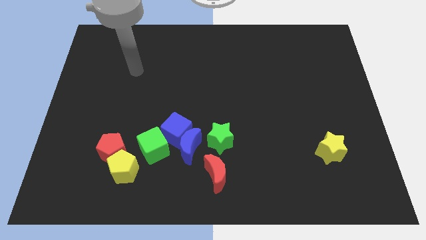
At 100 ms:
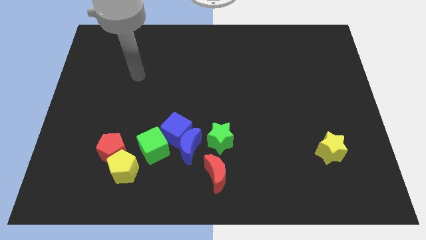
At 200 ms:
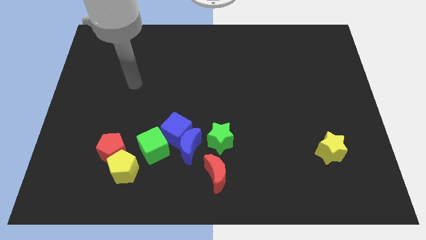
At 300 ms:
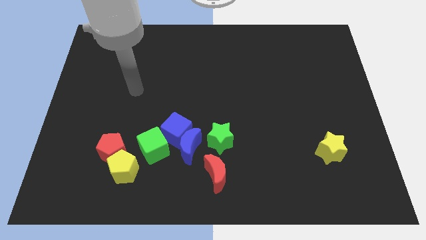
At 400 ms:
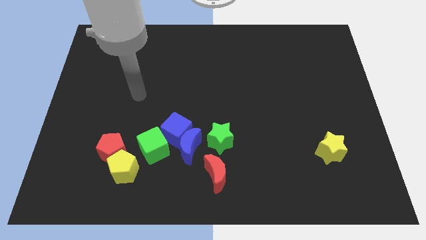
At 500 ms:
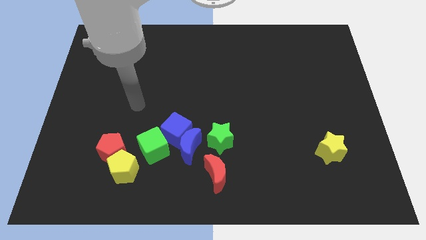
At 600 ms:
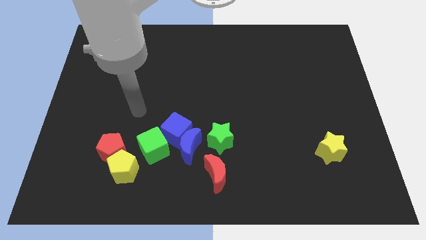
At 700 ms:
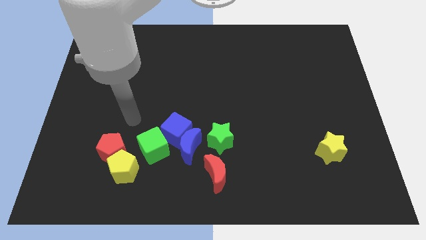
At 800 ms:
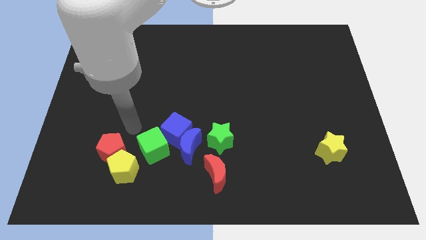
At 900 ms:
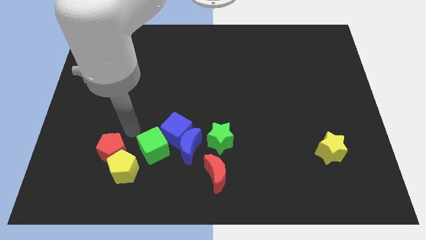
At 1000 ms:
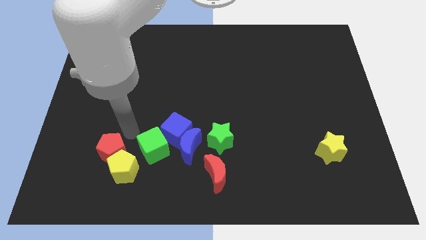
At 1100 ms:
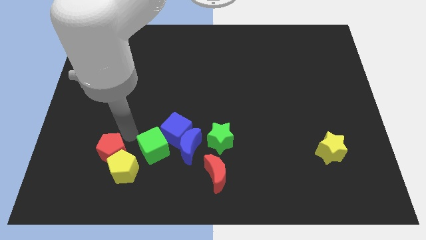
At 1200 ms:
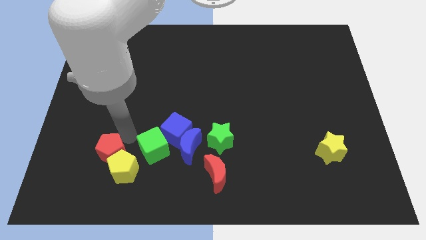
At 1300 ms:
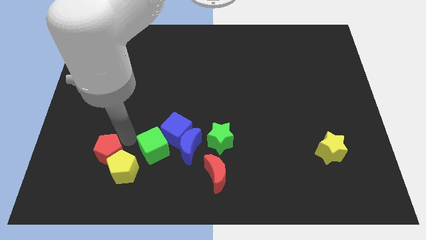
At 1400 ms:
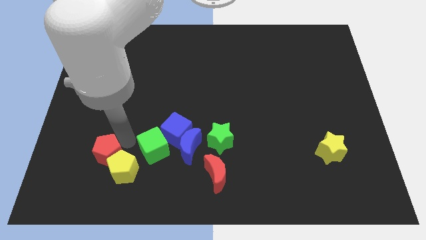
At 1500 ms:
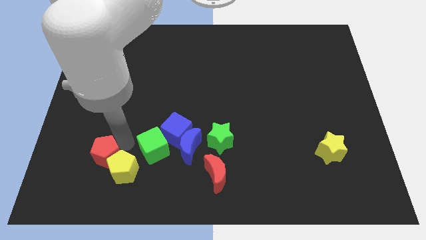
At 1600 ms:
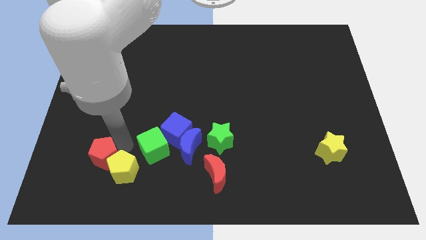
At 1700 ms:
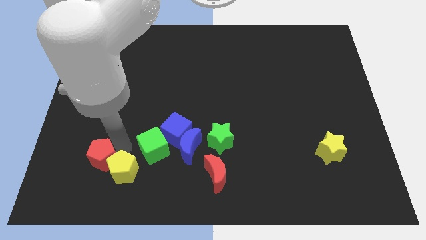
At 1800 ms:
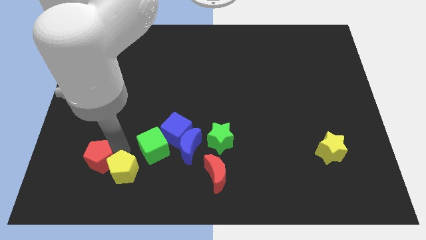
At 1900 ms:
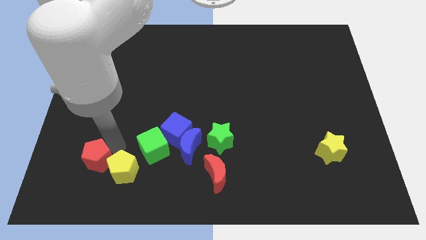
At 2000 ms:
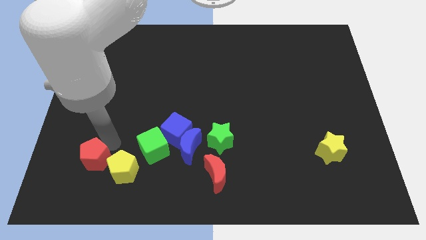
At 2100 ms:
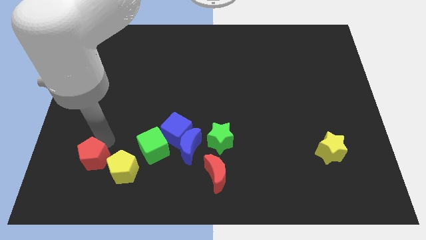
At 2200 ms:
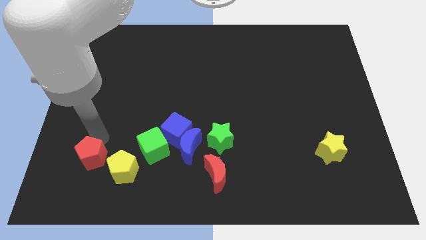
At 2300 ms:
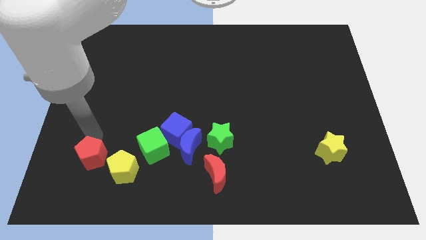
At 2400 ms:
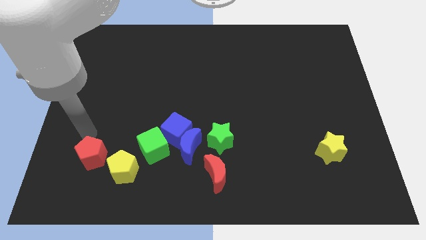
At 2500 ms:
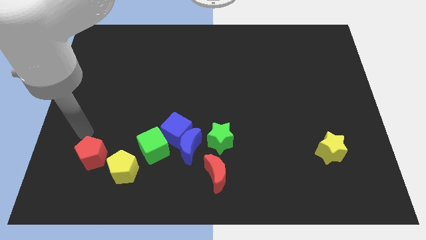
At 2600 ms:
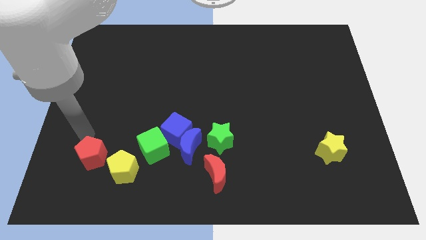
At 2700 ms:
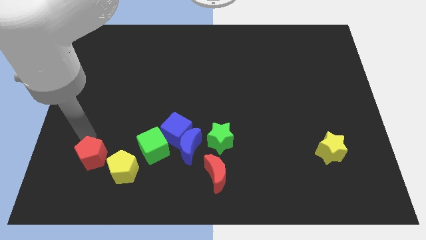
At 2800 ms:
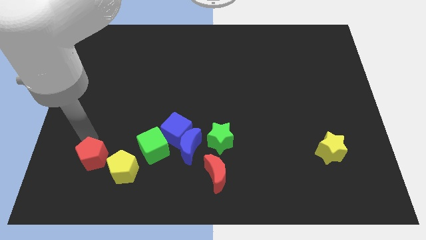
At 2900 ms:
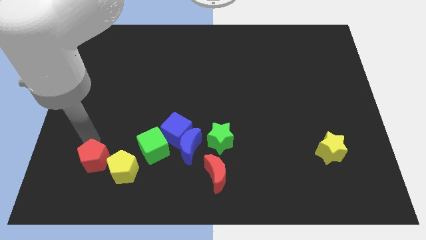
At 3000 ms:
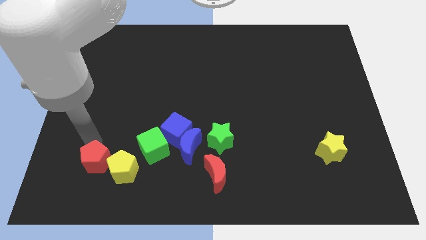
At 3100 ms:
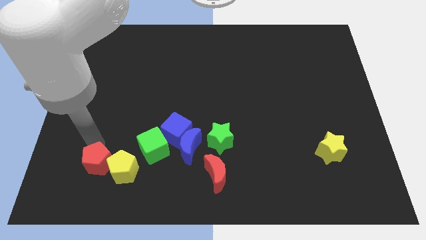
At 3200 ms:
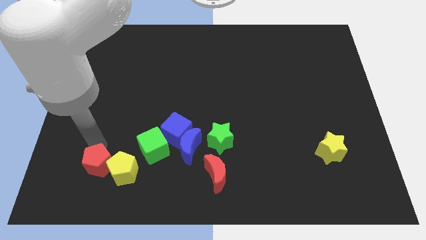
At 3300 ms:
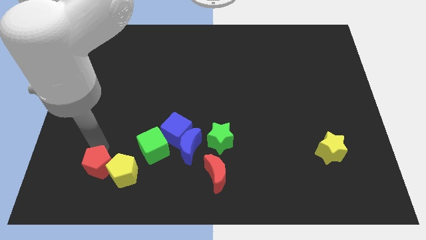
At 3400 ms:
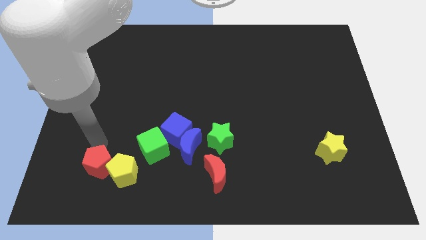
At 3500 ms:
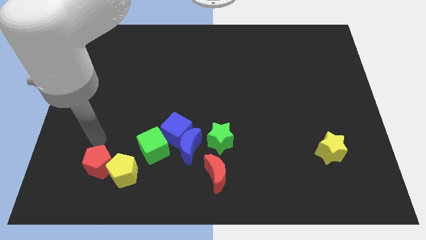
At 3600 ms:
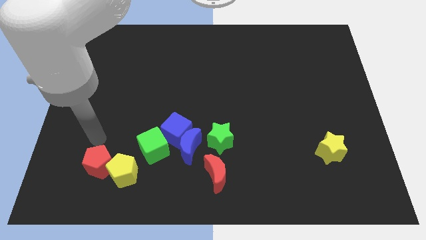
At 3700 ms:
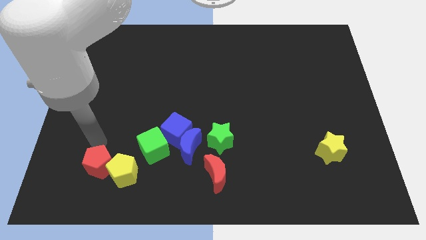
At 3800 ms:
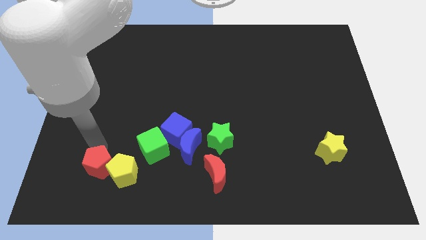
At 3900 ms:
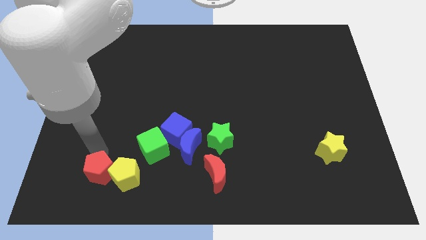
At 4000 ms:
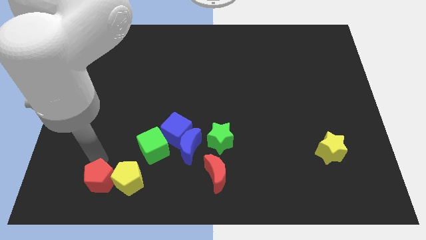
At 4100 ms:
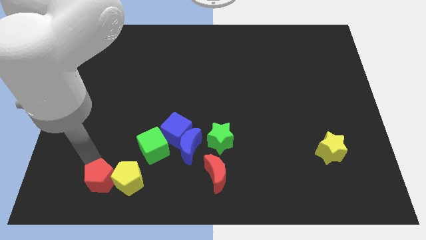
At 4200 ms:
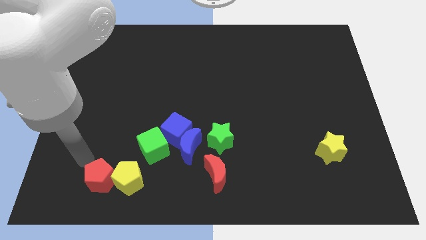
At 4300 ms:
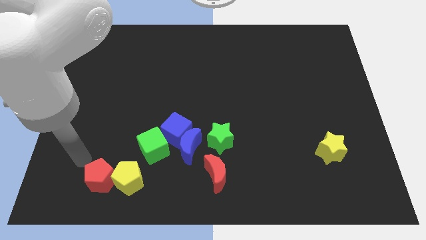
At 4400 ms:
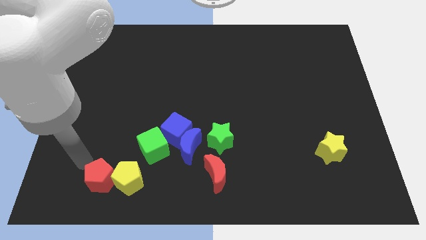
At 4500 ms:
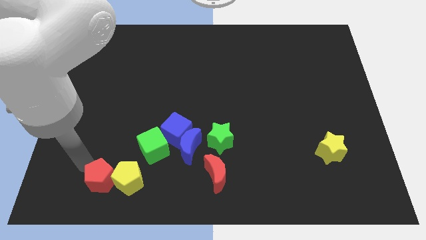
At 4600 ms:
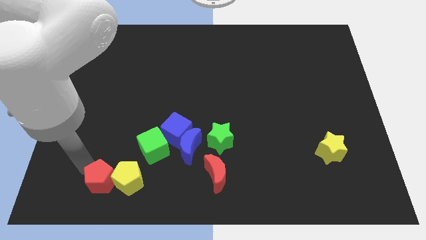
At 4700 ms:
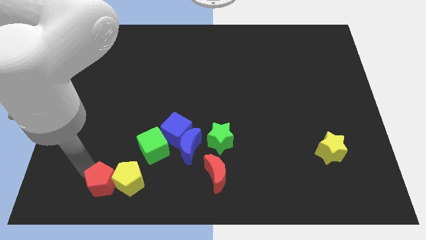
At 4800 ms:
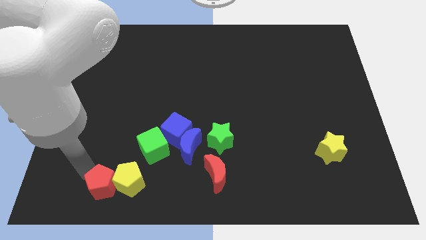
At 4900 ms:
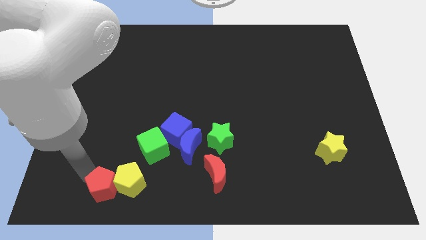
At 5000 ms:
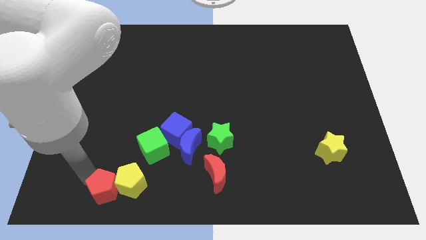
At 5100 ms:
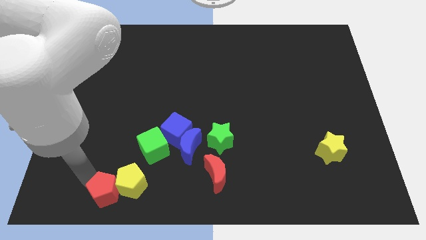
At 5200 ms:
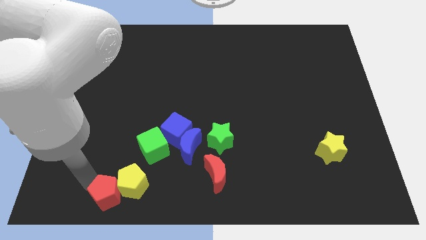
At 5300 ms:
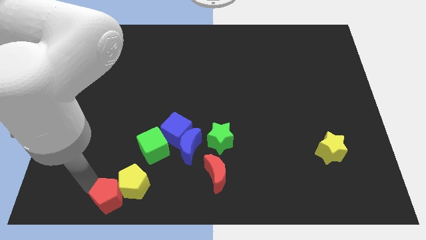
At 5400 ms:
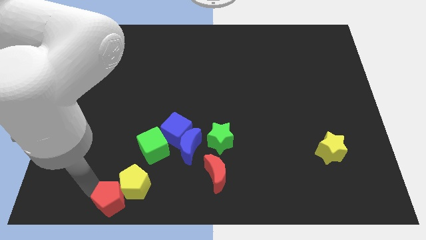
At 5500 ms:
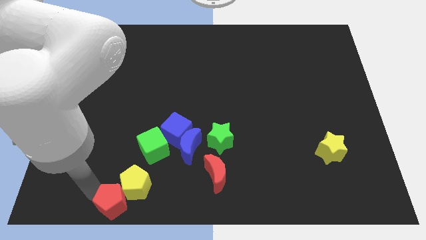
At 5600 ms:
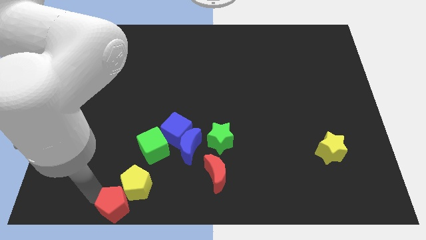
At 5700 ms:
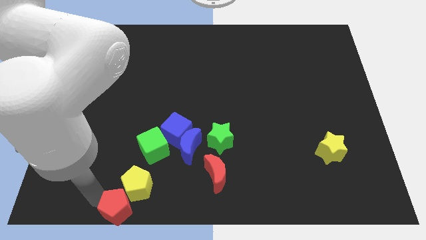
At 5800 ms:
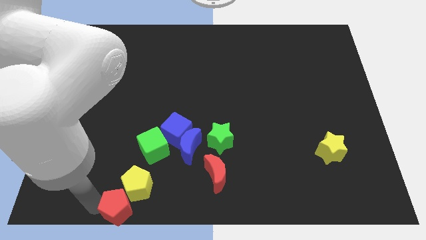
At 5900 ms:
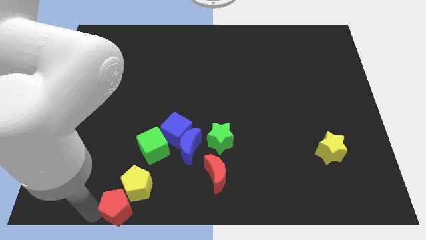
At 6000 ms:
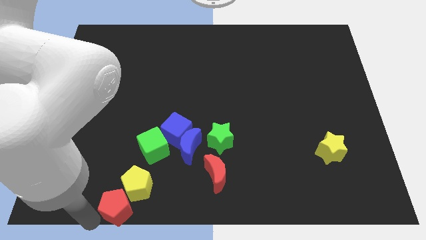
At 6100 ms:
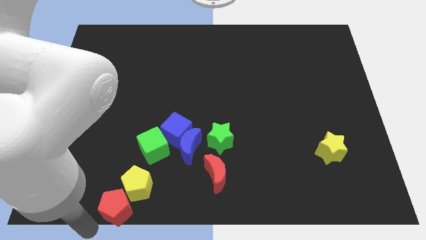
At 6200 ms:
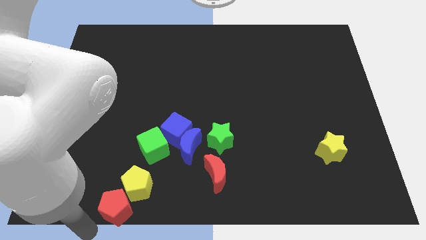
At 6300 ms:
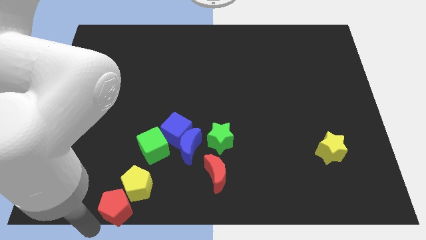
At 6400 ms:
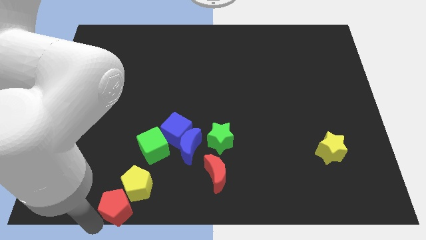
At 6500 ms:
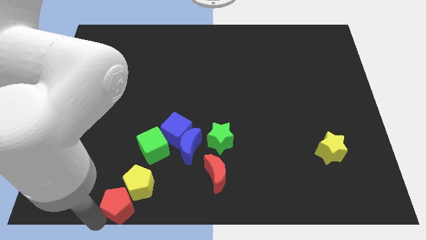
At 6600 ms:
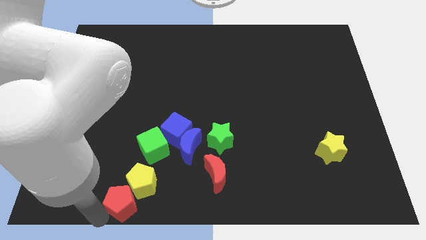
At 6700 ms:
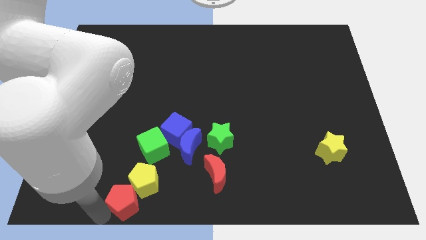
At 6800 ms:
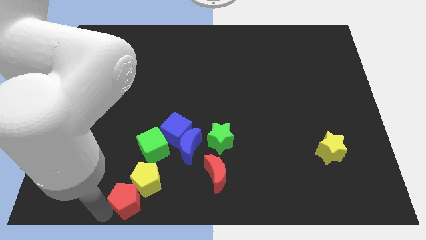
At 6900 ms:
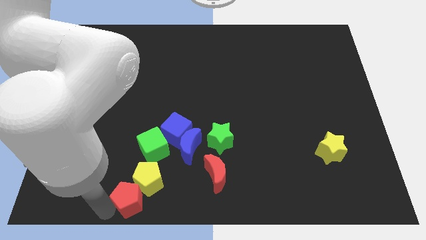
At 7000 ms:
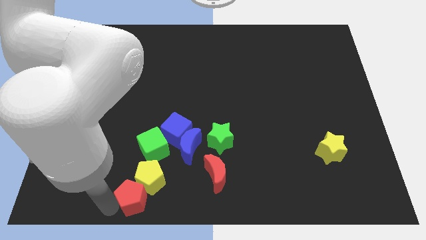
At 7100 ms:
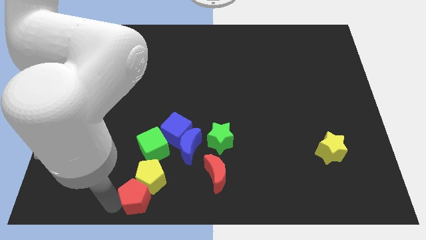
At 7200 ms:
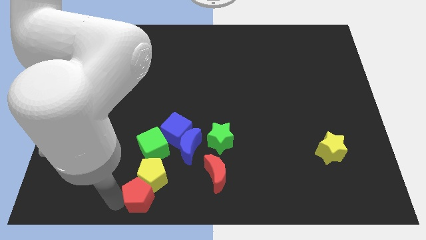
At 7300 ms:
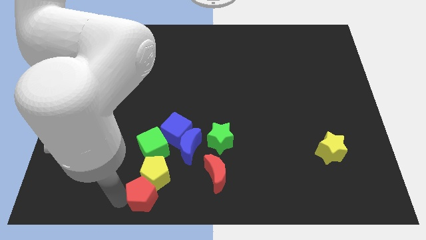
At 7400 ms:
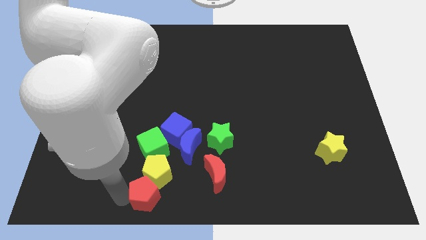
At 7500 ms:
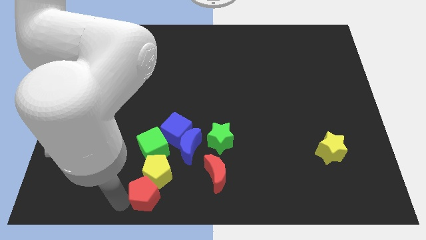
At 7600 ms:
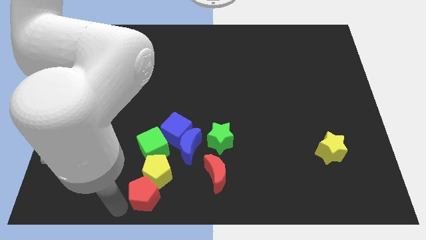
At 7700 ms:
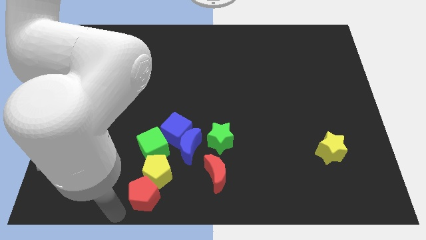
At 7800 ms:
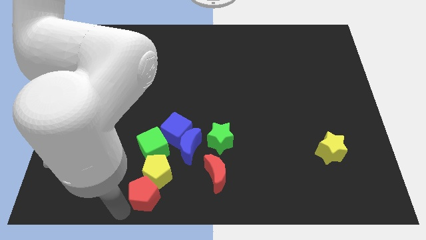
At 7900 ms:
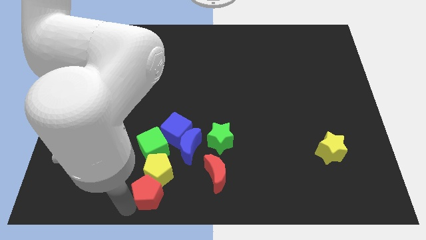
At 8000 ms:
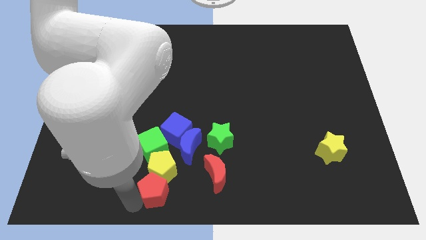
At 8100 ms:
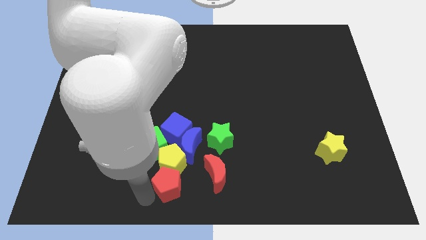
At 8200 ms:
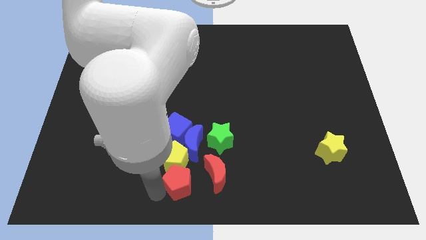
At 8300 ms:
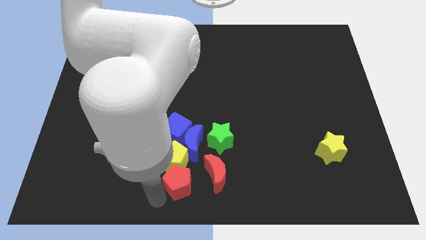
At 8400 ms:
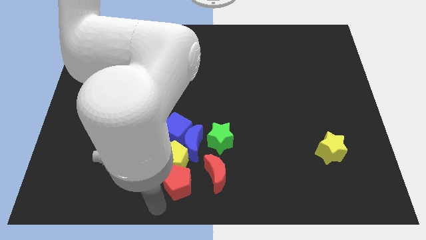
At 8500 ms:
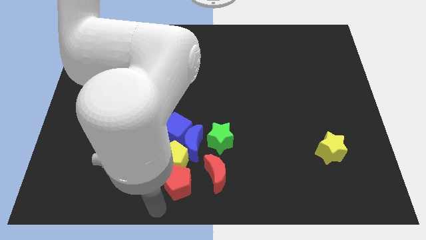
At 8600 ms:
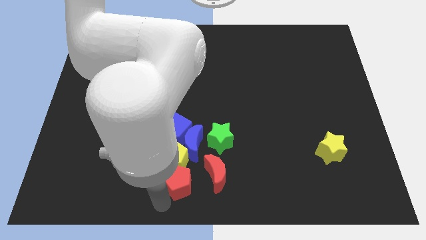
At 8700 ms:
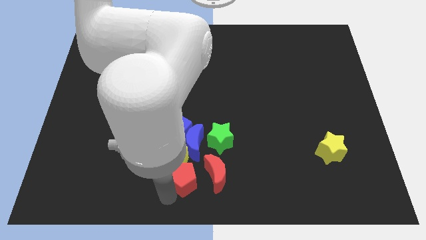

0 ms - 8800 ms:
put the red pentagon diagonally down and to the left of the green star
